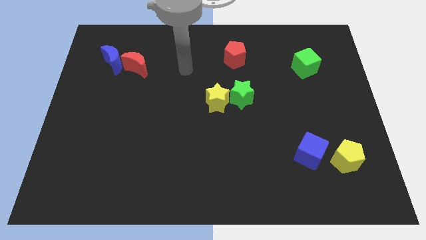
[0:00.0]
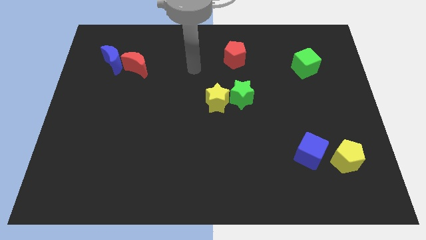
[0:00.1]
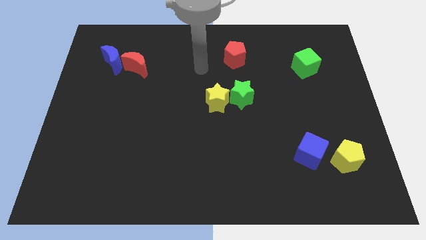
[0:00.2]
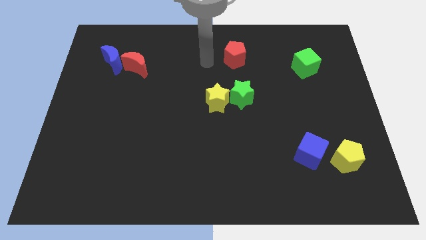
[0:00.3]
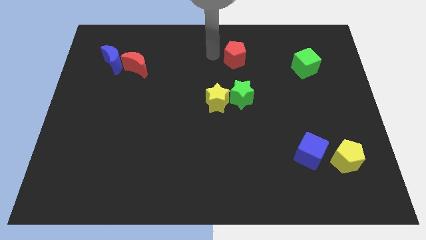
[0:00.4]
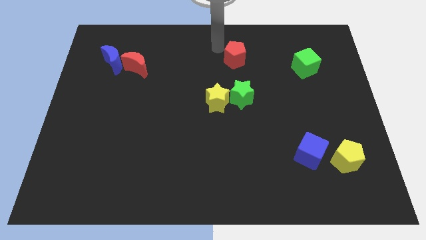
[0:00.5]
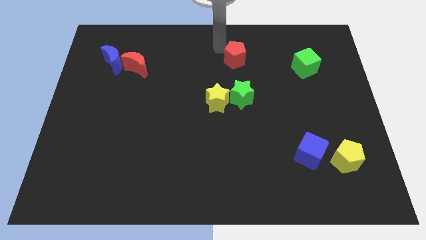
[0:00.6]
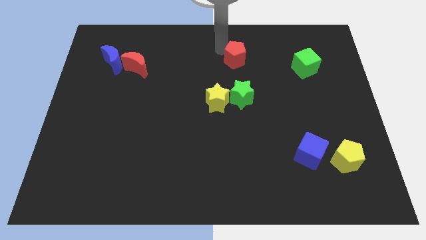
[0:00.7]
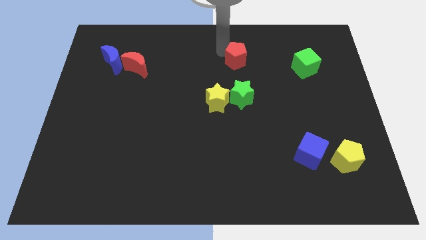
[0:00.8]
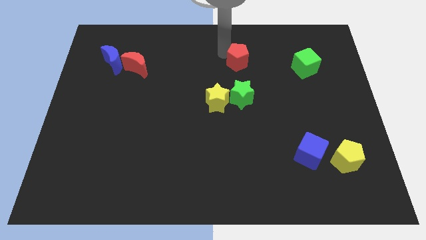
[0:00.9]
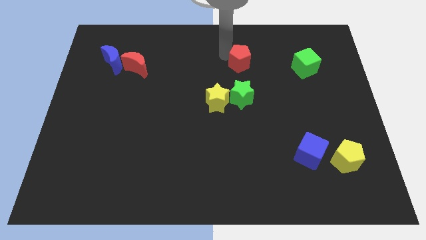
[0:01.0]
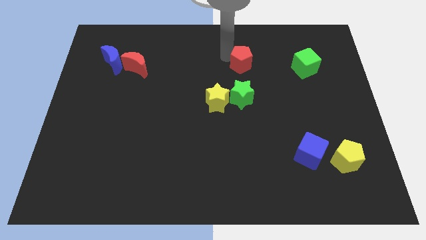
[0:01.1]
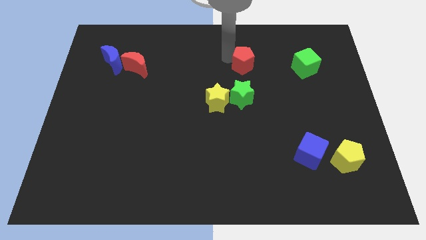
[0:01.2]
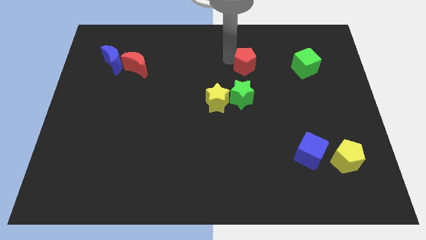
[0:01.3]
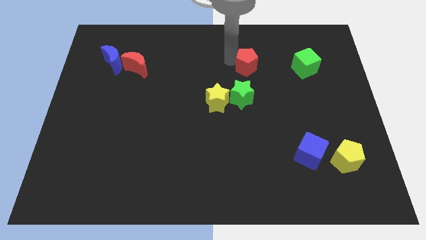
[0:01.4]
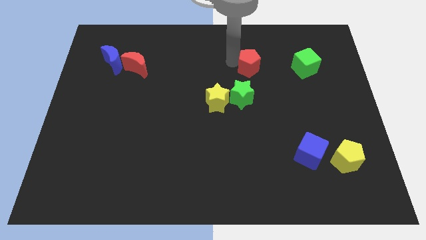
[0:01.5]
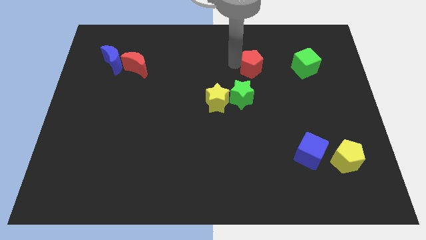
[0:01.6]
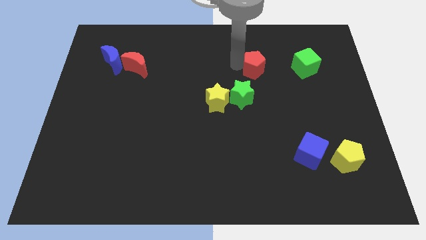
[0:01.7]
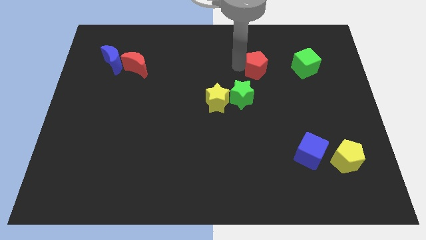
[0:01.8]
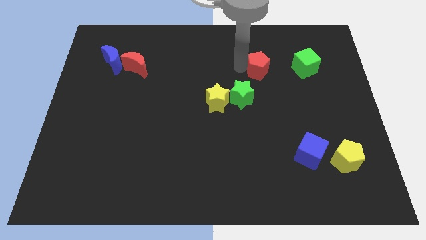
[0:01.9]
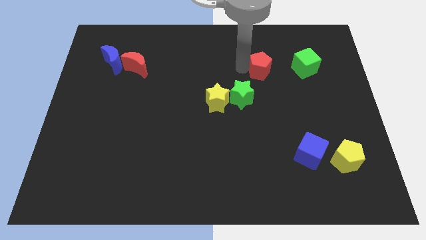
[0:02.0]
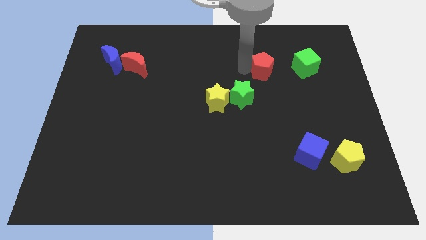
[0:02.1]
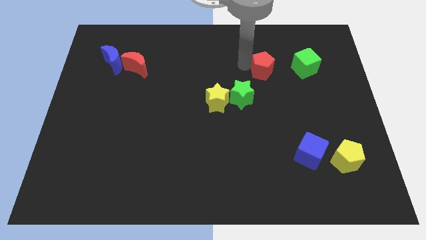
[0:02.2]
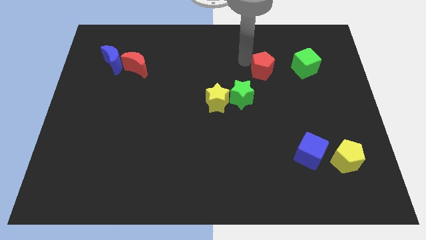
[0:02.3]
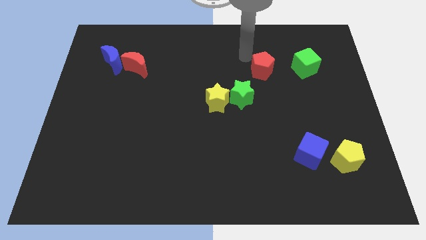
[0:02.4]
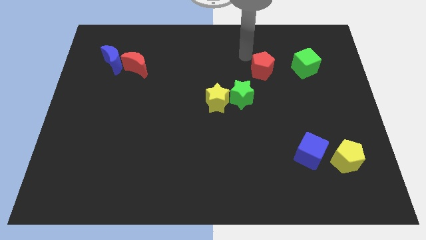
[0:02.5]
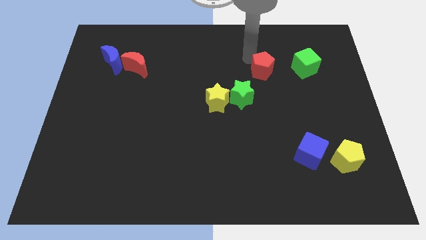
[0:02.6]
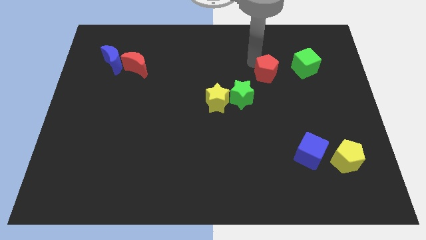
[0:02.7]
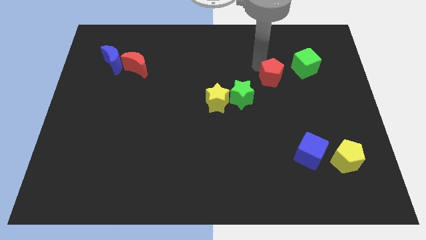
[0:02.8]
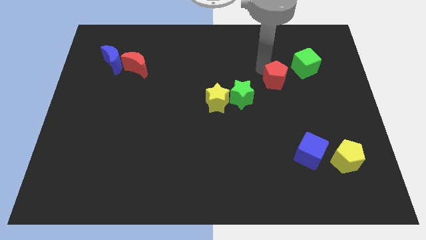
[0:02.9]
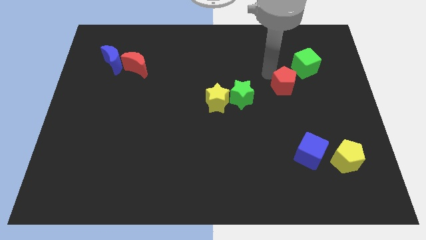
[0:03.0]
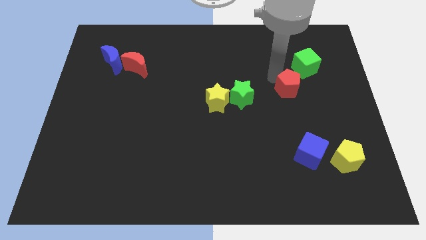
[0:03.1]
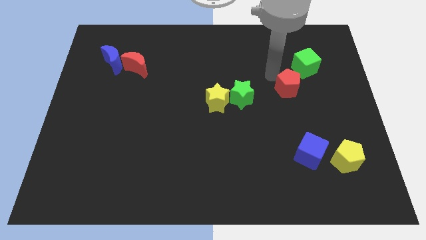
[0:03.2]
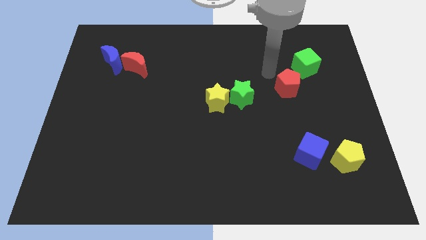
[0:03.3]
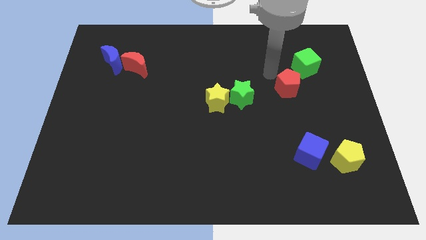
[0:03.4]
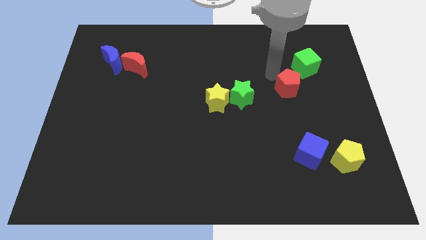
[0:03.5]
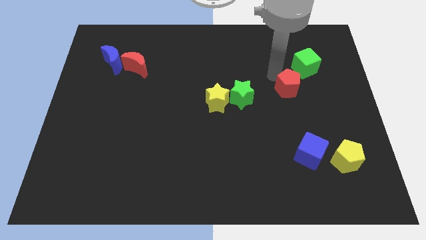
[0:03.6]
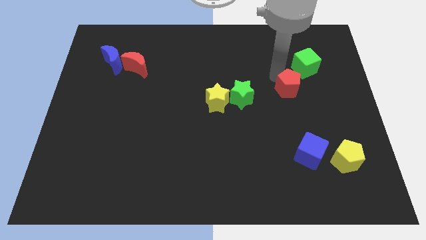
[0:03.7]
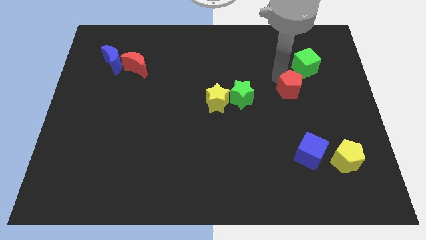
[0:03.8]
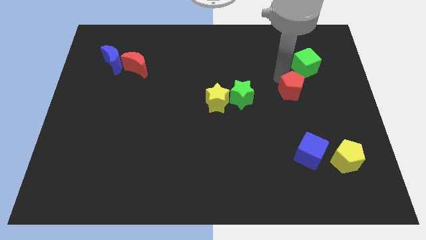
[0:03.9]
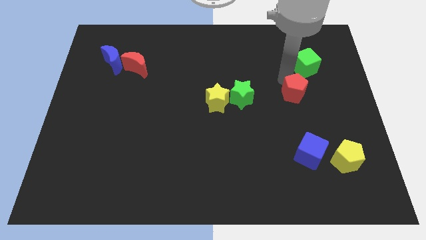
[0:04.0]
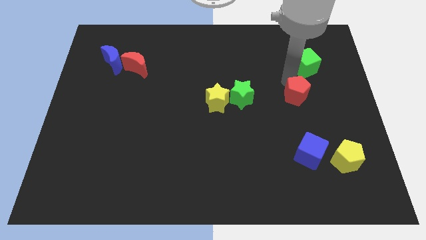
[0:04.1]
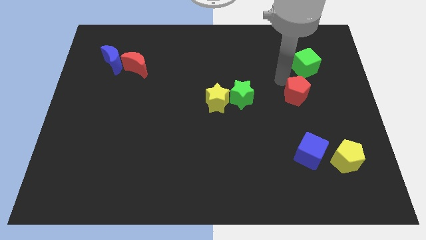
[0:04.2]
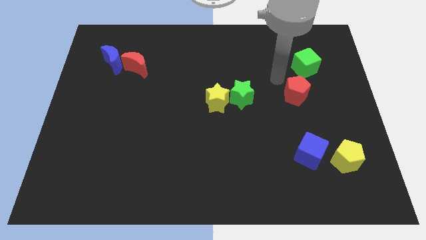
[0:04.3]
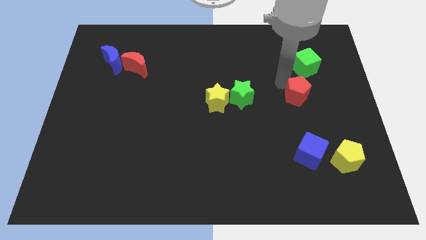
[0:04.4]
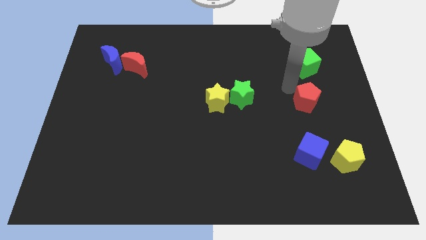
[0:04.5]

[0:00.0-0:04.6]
move the red pentagon diagonally downwards and to the right

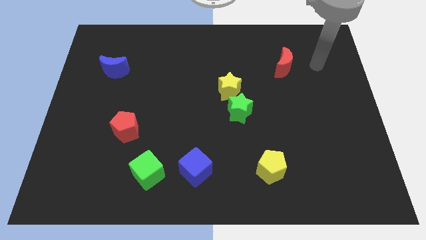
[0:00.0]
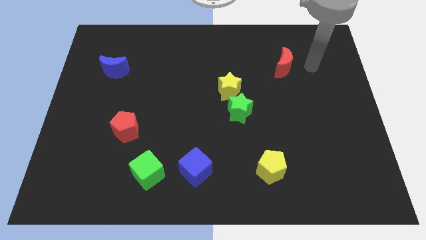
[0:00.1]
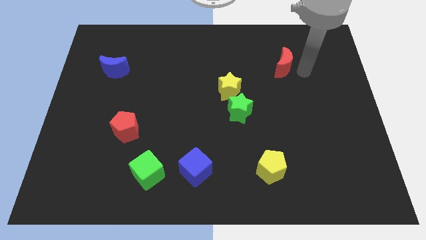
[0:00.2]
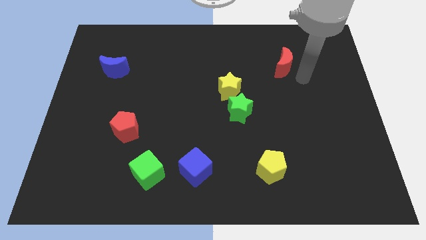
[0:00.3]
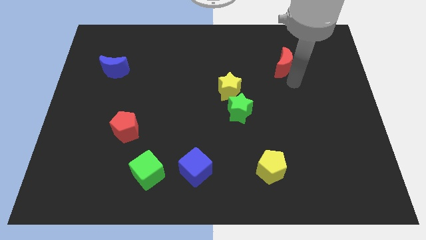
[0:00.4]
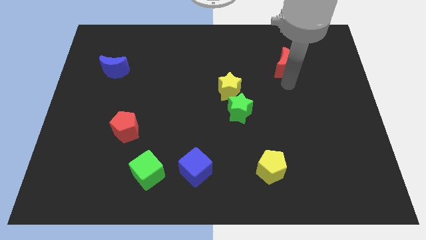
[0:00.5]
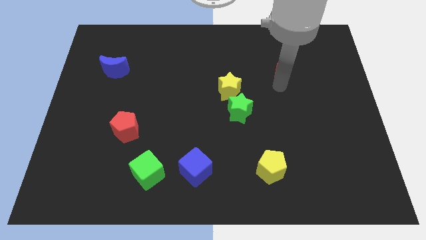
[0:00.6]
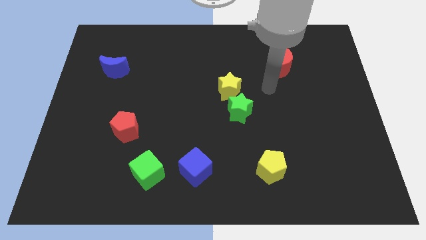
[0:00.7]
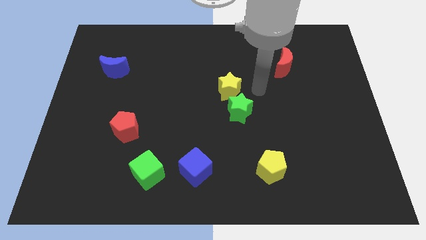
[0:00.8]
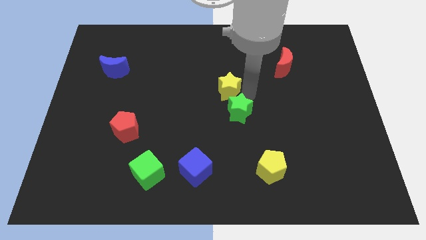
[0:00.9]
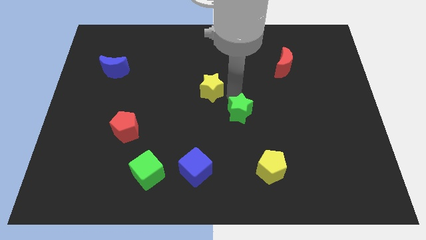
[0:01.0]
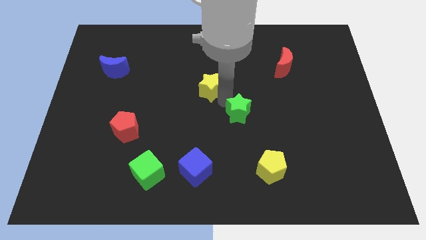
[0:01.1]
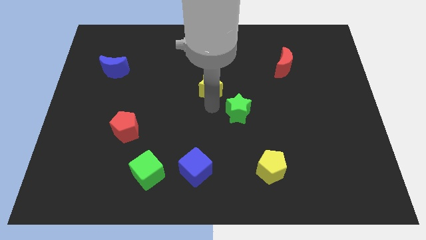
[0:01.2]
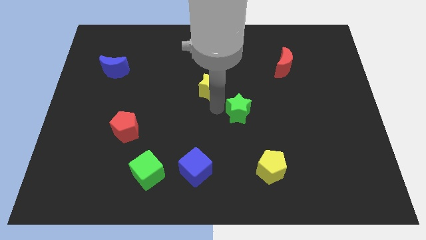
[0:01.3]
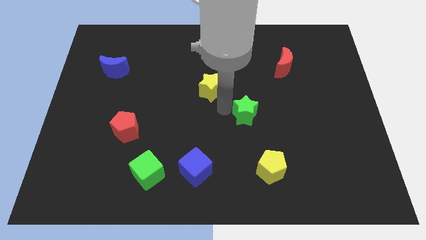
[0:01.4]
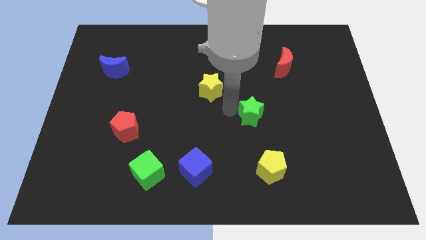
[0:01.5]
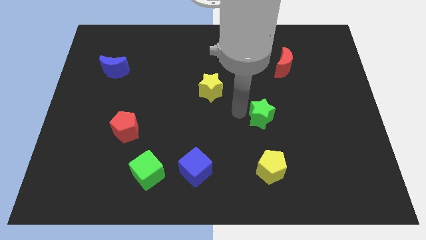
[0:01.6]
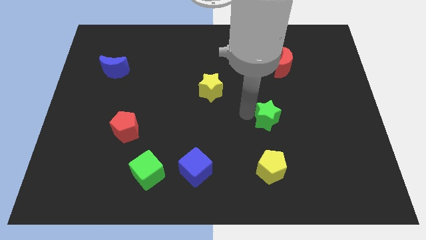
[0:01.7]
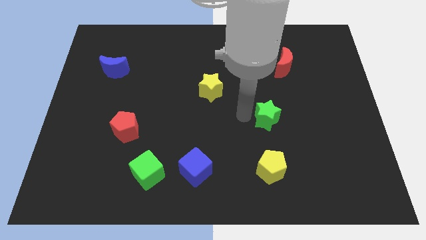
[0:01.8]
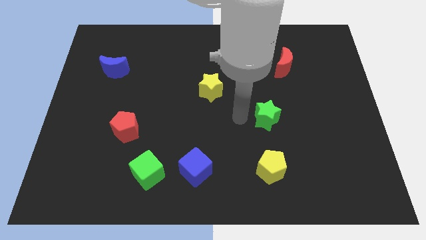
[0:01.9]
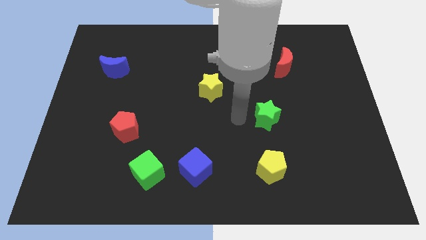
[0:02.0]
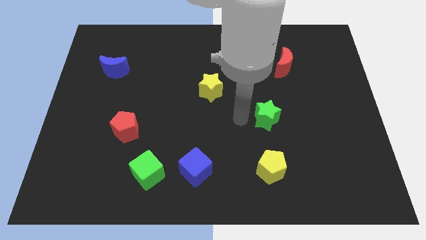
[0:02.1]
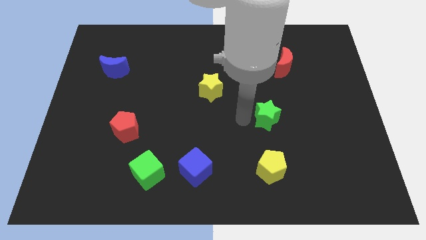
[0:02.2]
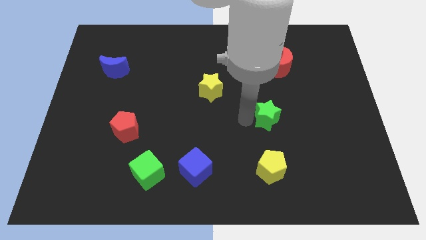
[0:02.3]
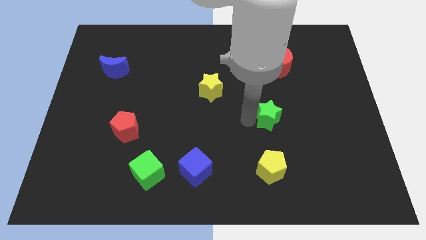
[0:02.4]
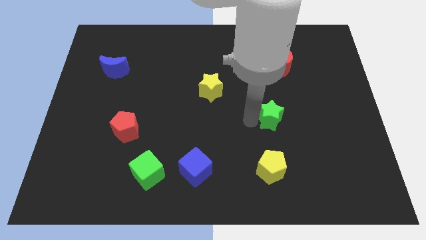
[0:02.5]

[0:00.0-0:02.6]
slide the green star a little to the right

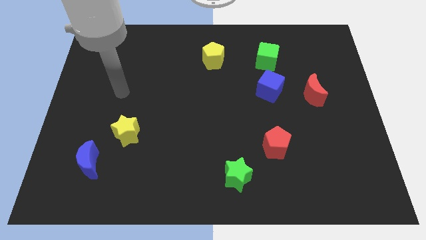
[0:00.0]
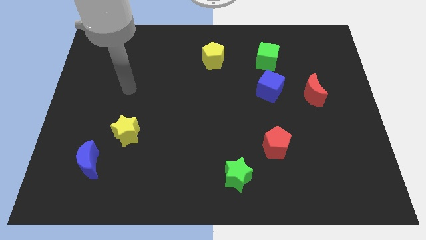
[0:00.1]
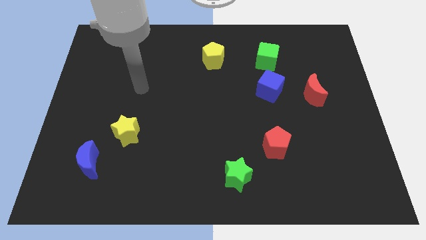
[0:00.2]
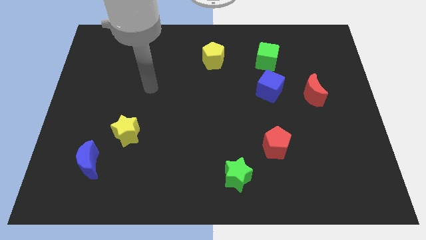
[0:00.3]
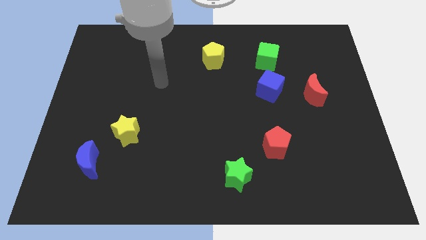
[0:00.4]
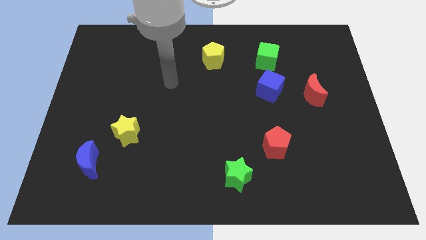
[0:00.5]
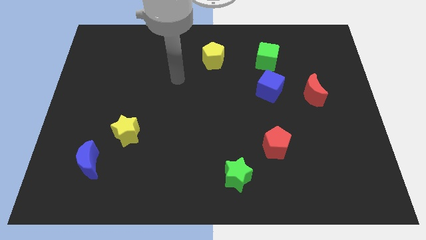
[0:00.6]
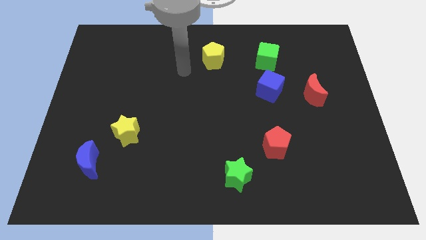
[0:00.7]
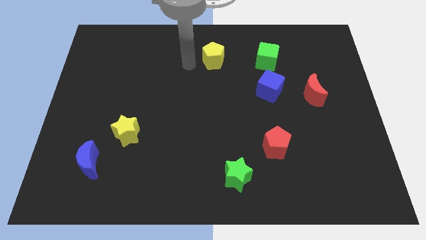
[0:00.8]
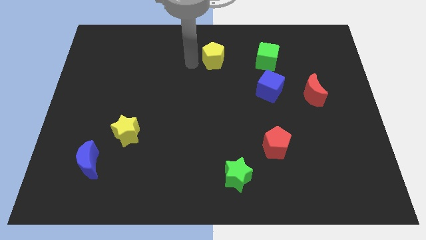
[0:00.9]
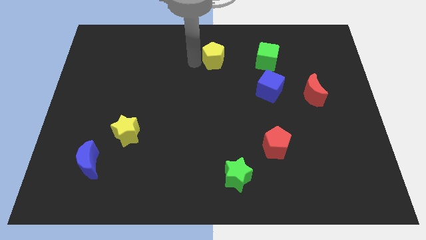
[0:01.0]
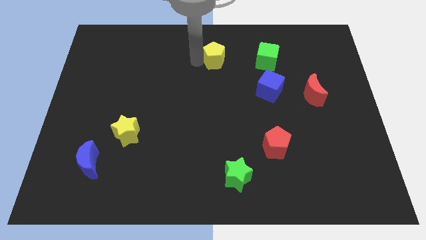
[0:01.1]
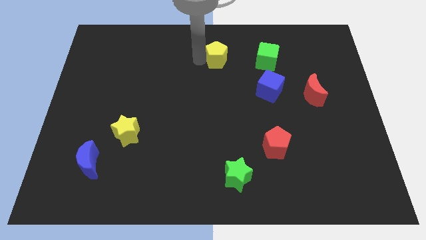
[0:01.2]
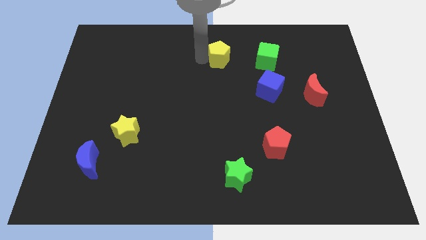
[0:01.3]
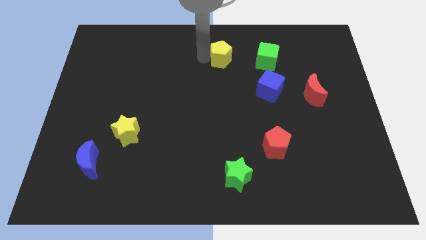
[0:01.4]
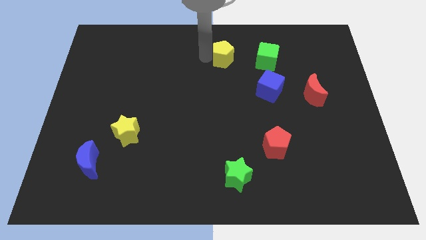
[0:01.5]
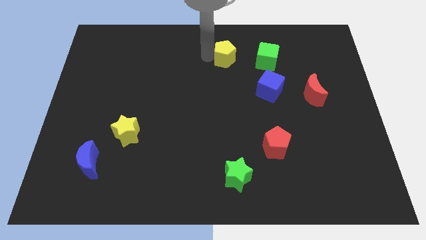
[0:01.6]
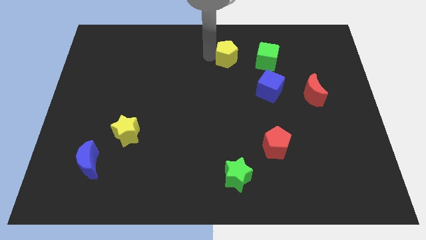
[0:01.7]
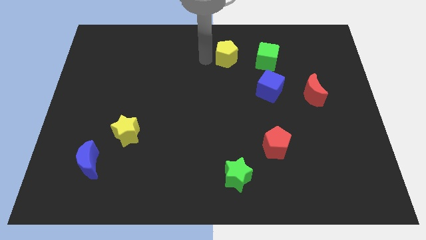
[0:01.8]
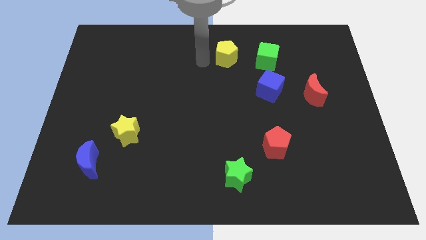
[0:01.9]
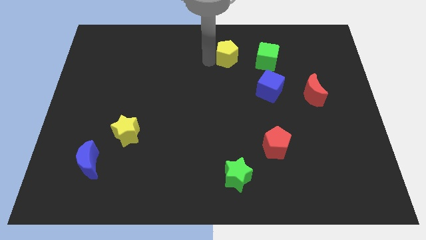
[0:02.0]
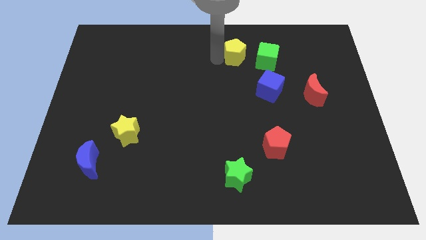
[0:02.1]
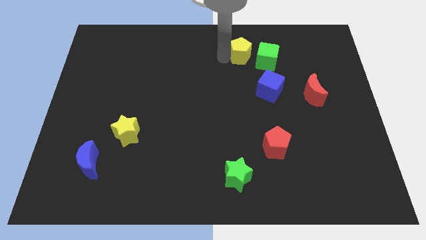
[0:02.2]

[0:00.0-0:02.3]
push the yellow pentagon to the right a little bit
